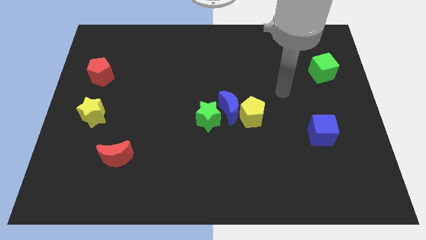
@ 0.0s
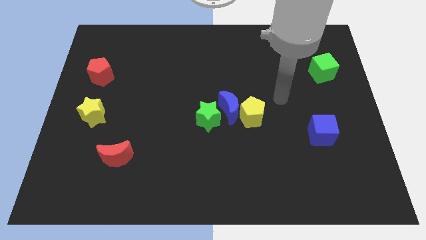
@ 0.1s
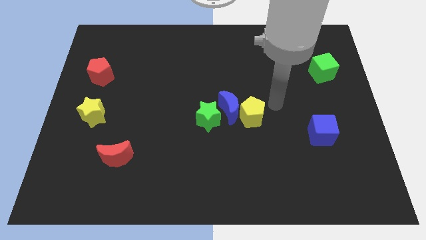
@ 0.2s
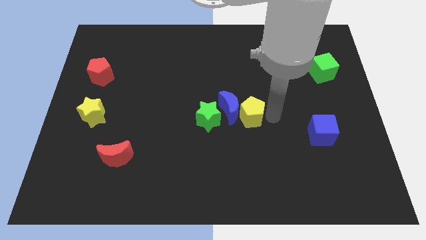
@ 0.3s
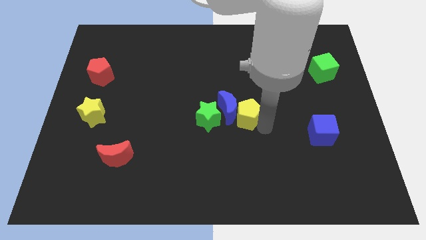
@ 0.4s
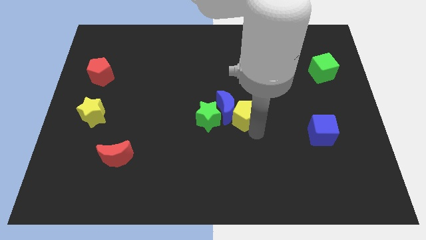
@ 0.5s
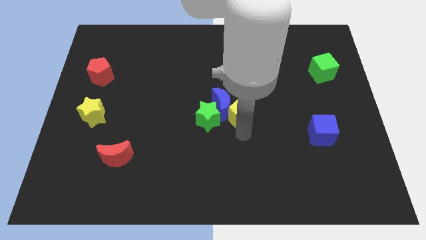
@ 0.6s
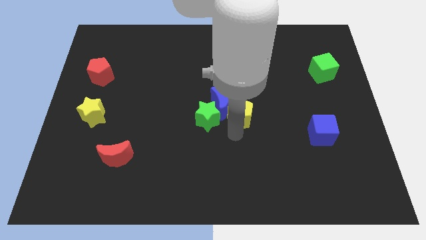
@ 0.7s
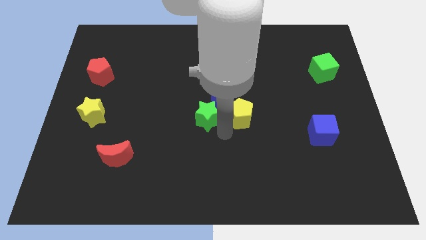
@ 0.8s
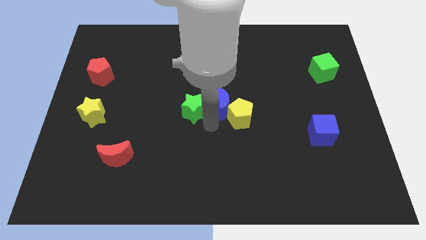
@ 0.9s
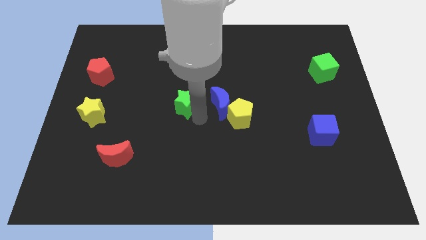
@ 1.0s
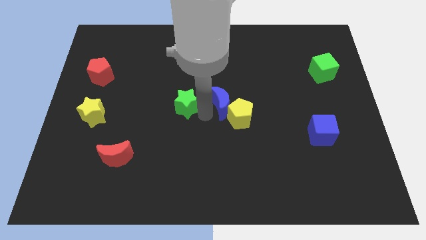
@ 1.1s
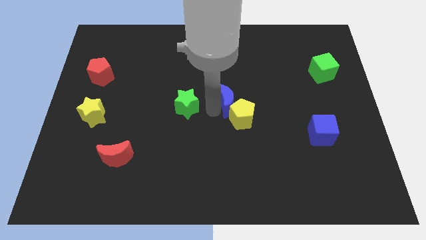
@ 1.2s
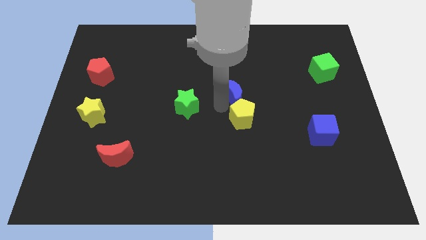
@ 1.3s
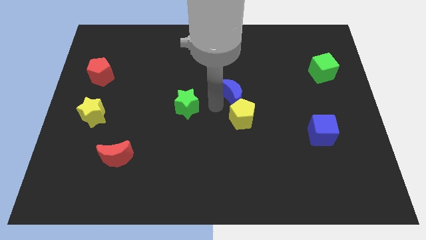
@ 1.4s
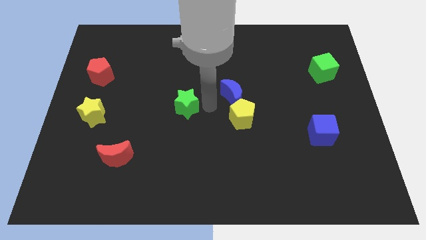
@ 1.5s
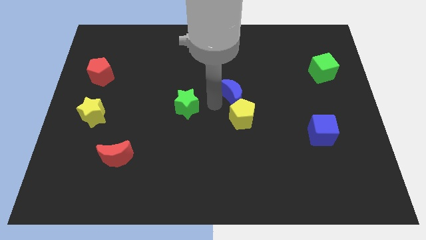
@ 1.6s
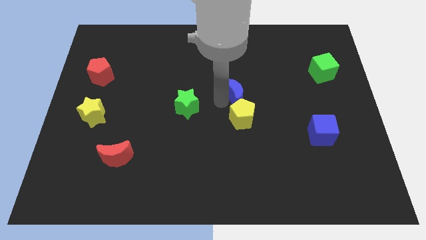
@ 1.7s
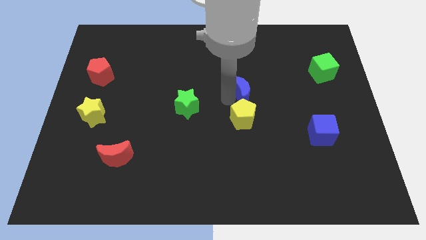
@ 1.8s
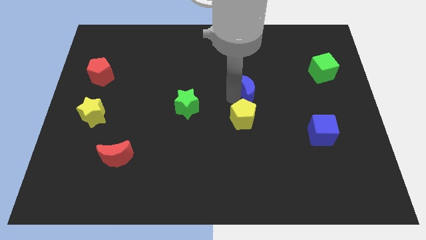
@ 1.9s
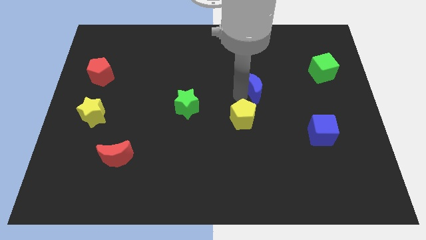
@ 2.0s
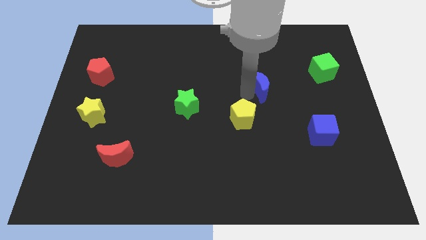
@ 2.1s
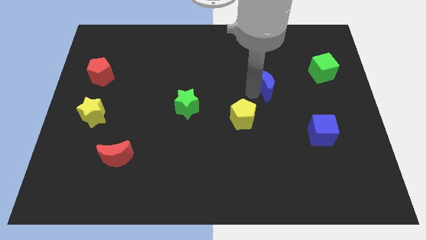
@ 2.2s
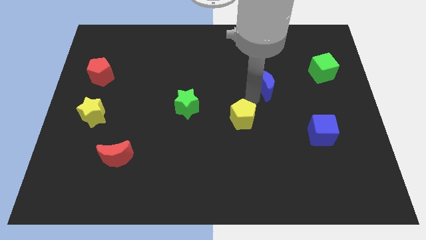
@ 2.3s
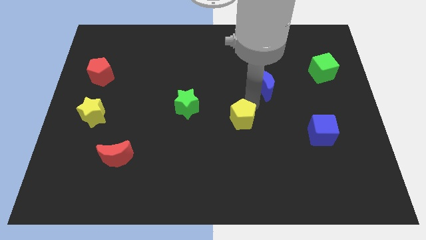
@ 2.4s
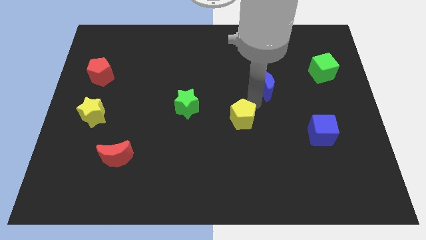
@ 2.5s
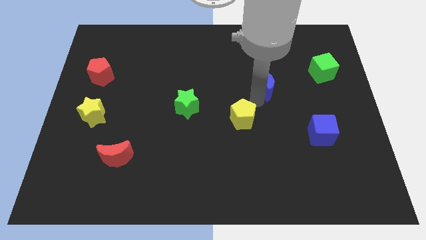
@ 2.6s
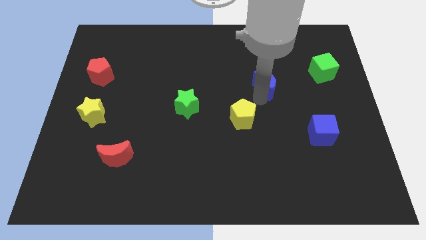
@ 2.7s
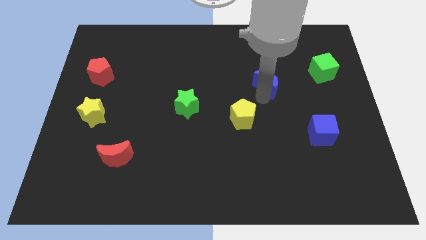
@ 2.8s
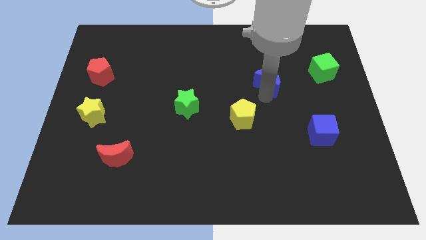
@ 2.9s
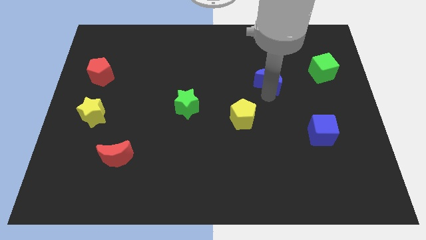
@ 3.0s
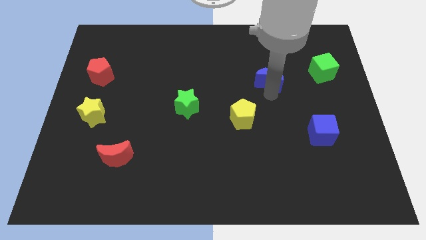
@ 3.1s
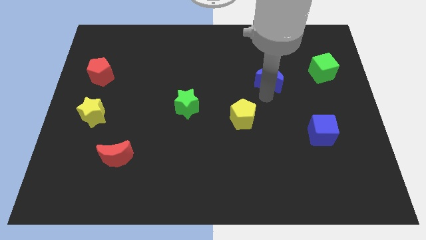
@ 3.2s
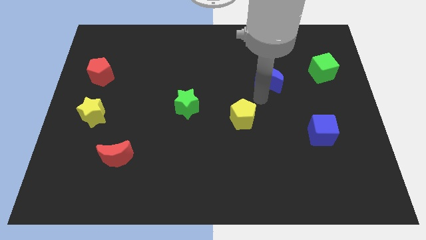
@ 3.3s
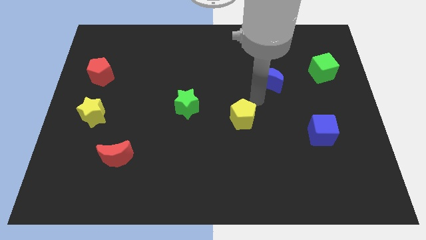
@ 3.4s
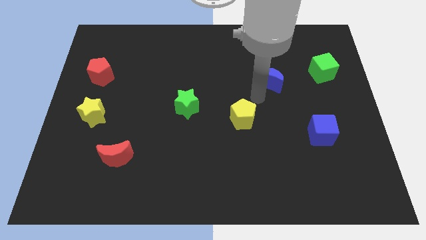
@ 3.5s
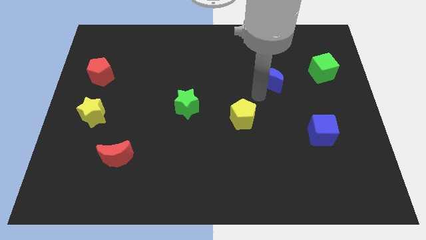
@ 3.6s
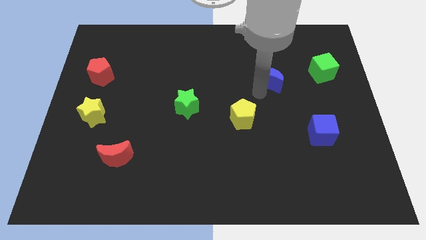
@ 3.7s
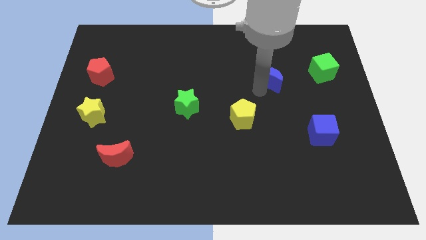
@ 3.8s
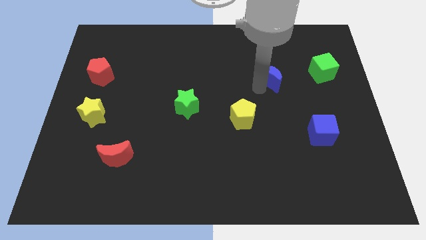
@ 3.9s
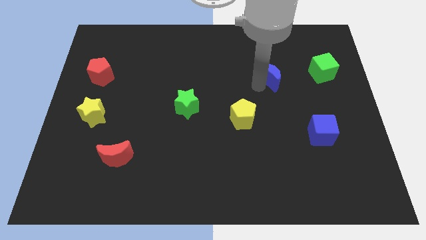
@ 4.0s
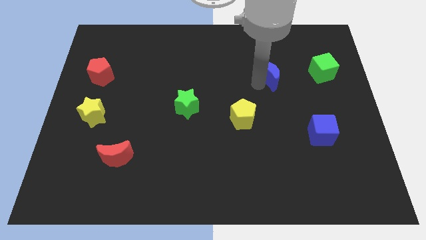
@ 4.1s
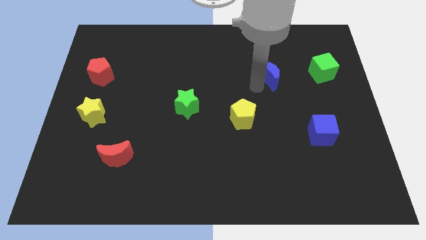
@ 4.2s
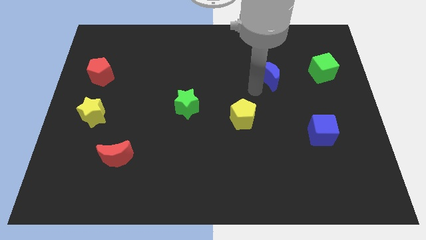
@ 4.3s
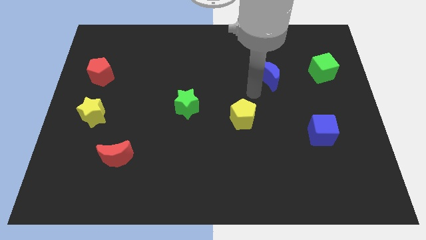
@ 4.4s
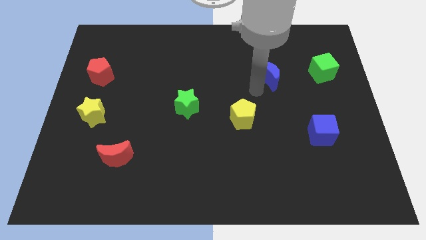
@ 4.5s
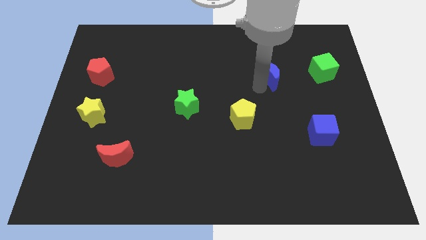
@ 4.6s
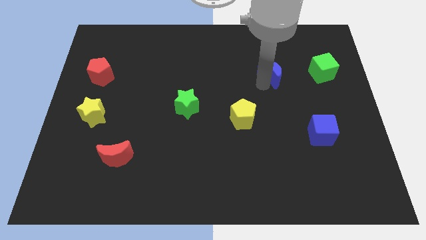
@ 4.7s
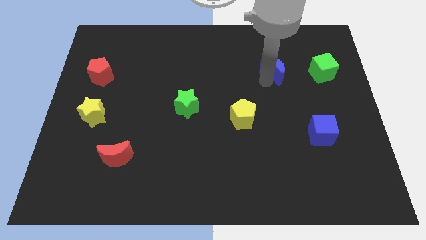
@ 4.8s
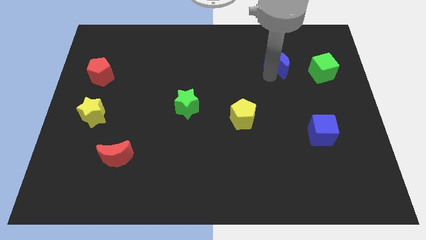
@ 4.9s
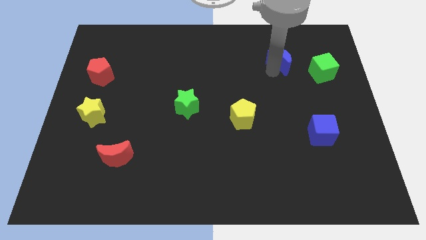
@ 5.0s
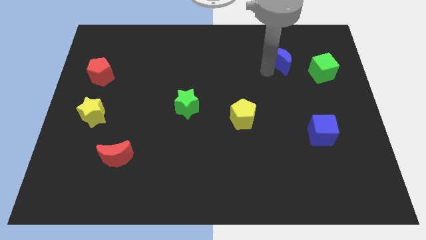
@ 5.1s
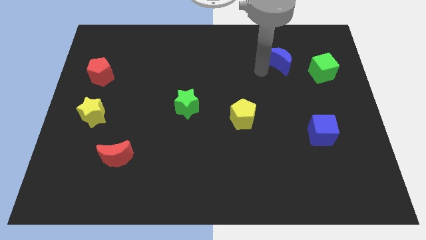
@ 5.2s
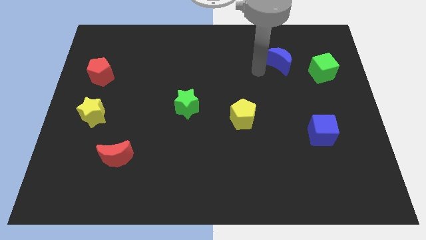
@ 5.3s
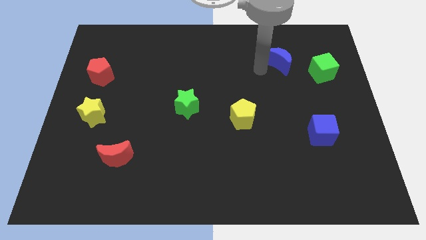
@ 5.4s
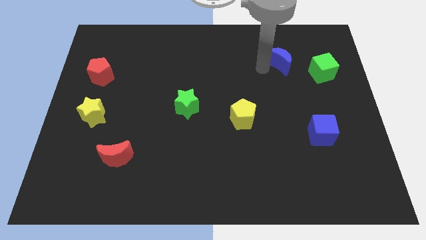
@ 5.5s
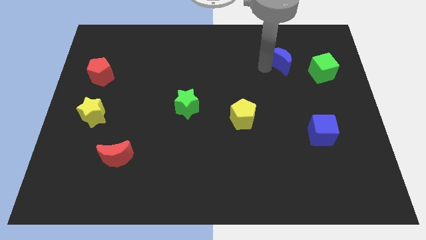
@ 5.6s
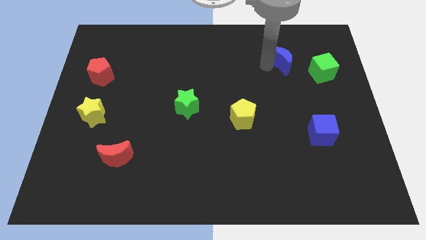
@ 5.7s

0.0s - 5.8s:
push the blue moon to the top left side of the green cube

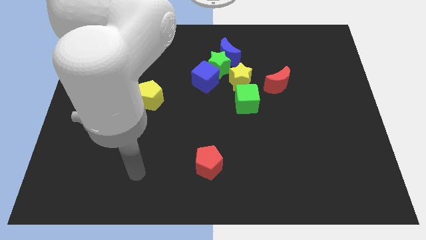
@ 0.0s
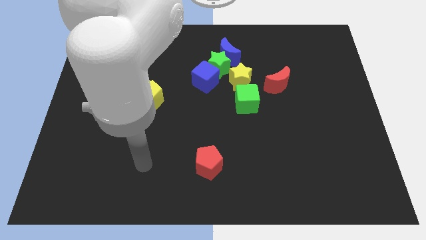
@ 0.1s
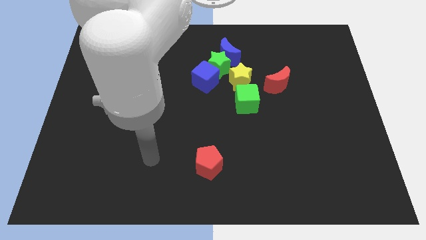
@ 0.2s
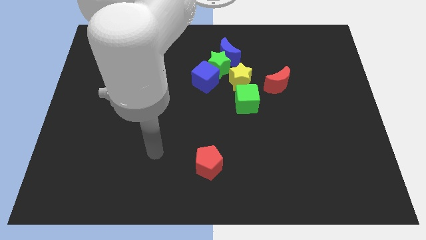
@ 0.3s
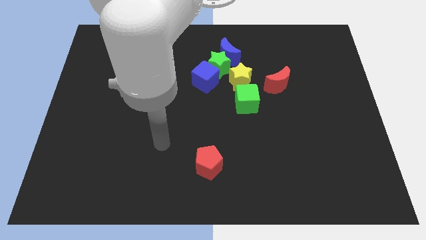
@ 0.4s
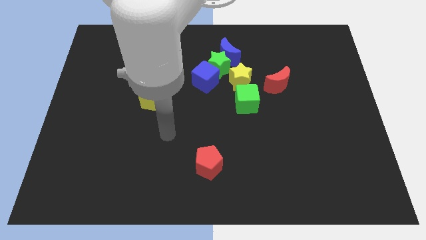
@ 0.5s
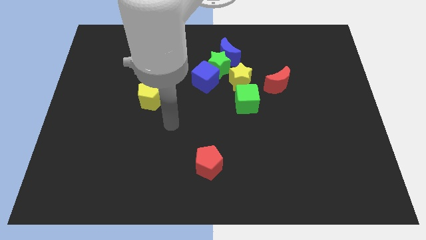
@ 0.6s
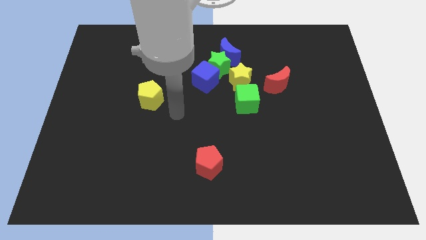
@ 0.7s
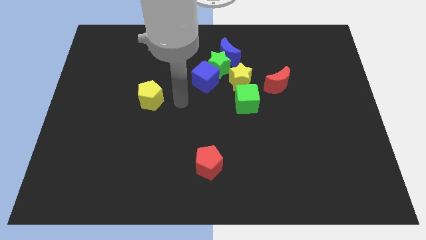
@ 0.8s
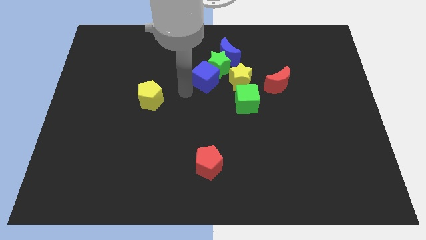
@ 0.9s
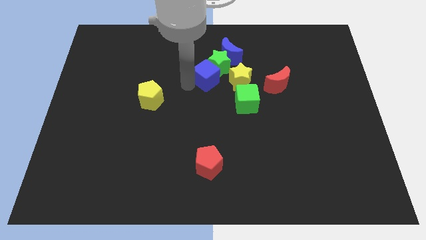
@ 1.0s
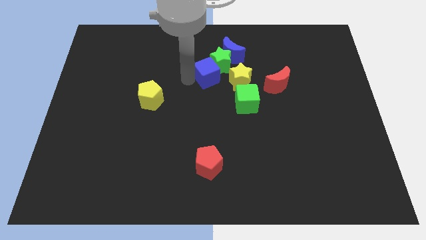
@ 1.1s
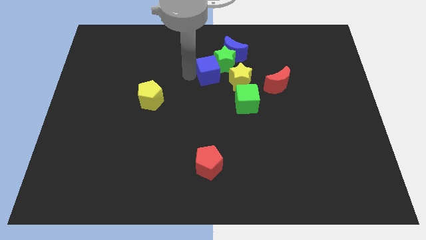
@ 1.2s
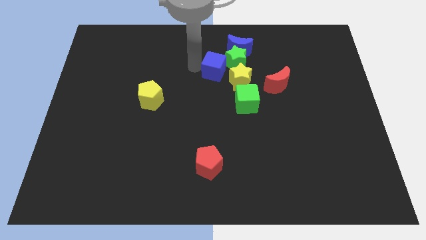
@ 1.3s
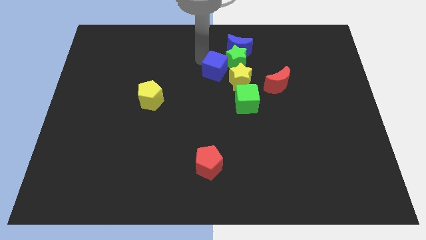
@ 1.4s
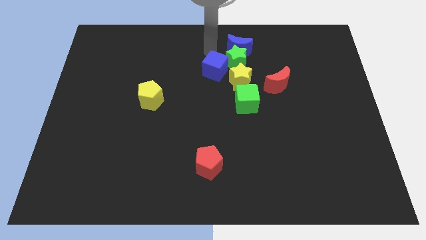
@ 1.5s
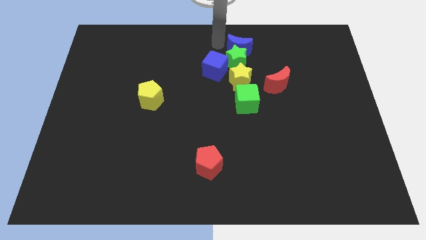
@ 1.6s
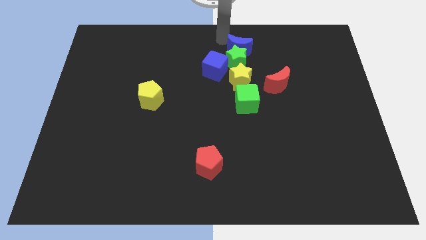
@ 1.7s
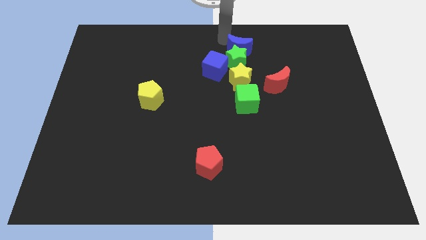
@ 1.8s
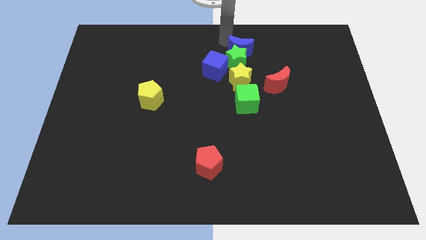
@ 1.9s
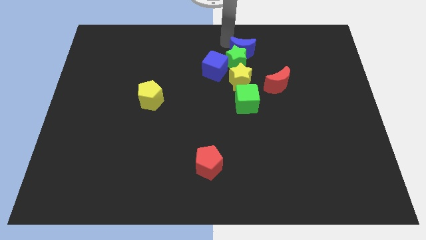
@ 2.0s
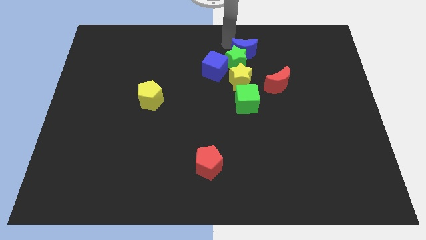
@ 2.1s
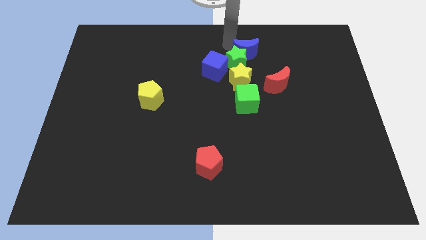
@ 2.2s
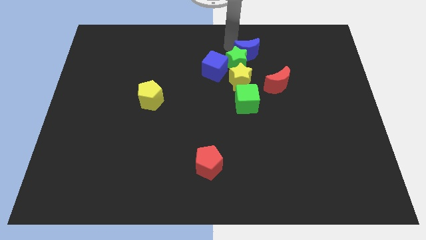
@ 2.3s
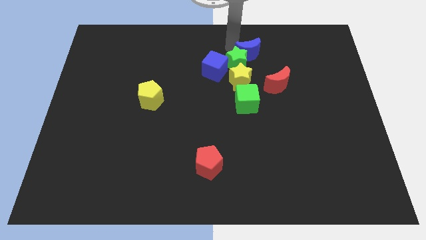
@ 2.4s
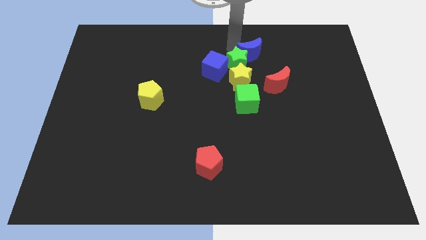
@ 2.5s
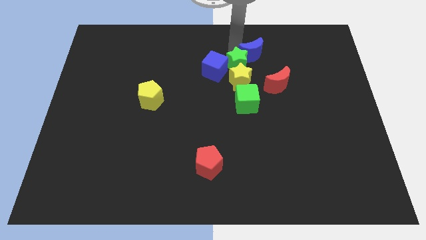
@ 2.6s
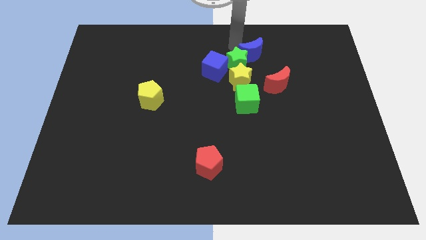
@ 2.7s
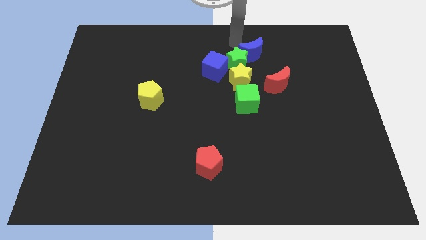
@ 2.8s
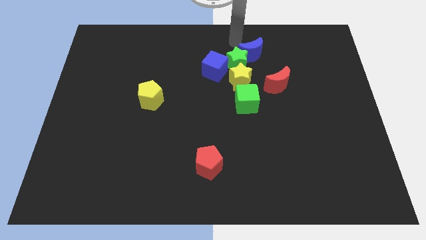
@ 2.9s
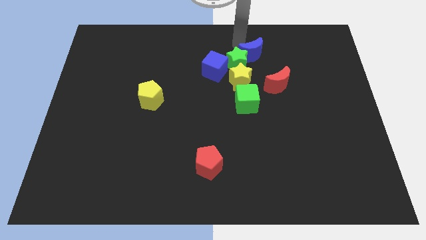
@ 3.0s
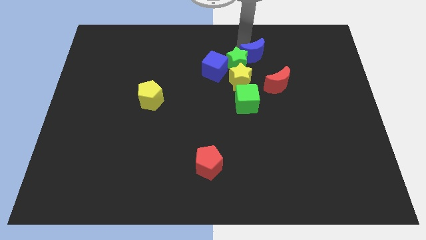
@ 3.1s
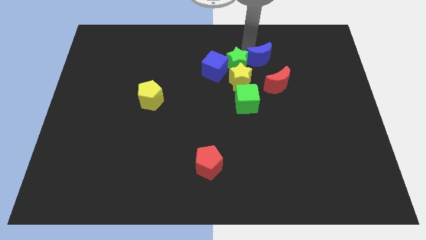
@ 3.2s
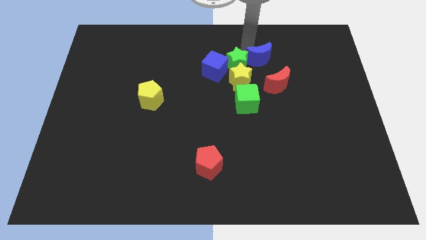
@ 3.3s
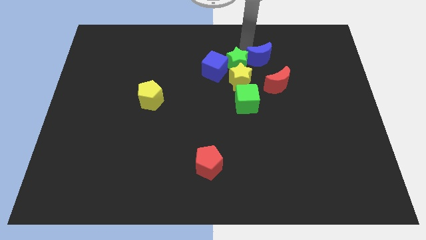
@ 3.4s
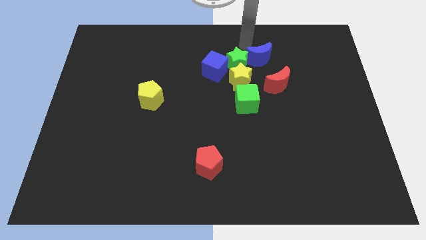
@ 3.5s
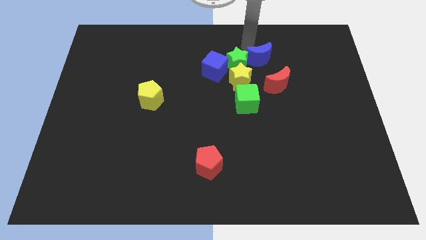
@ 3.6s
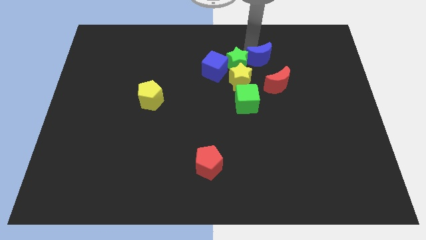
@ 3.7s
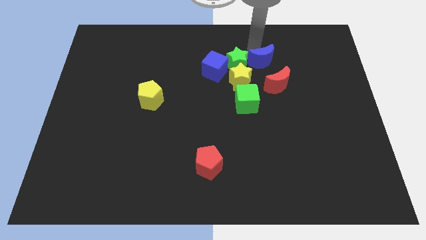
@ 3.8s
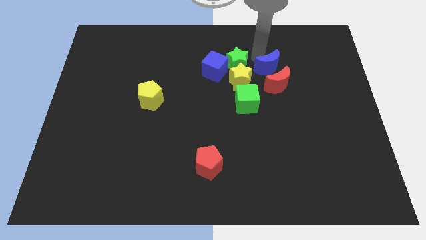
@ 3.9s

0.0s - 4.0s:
move the blue moon right of the yellow star
